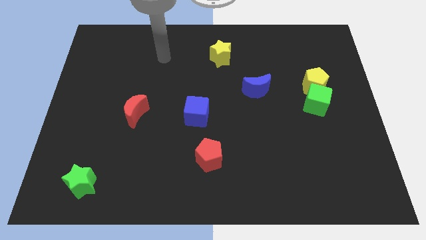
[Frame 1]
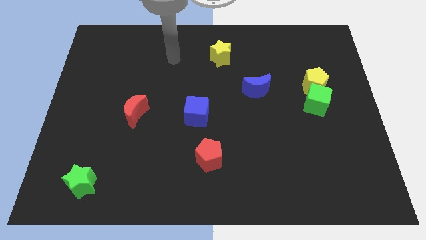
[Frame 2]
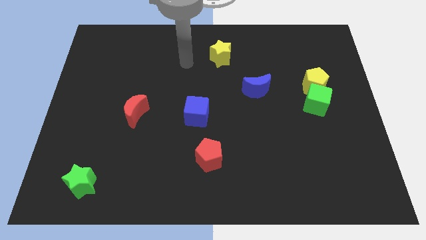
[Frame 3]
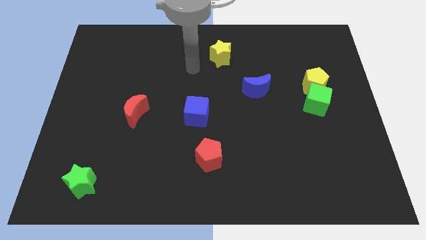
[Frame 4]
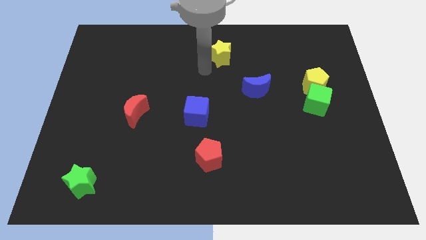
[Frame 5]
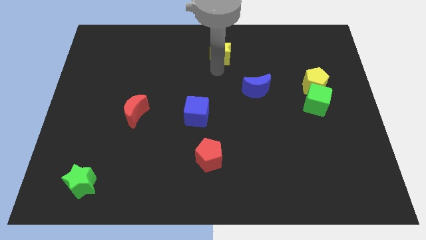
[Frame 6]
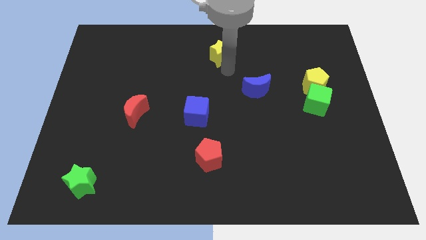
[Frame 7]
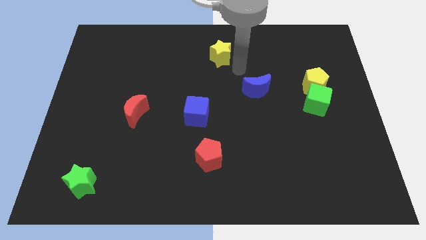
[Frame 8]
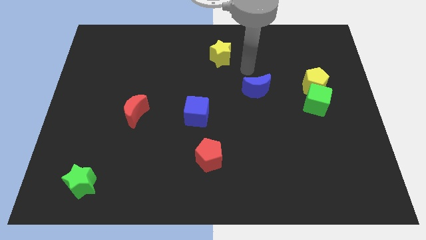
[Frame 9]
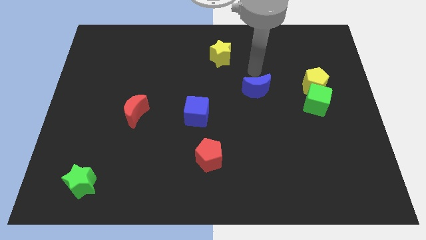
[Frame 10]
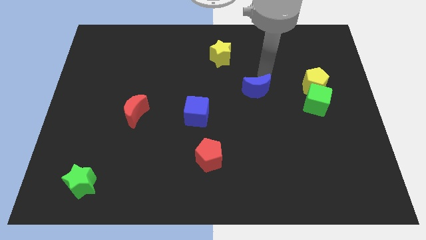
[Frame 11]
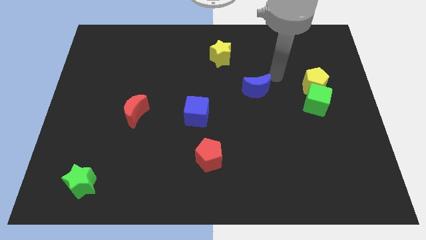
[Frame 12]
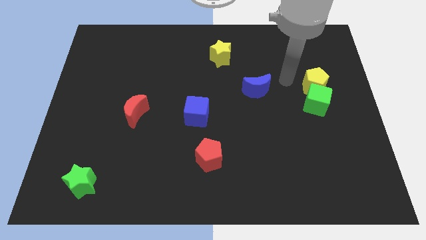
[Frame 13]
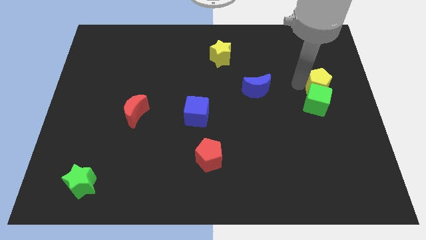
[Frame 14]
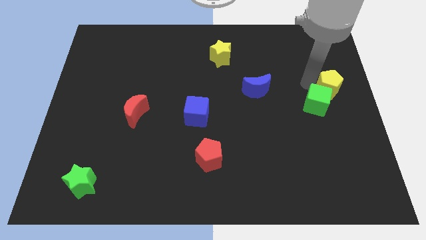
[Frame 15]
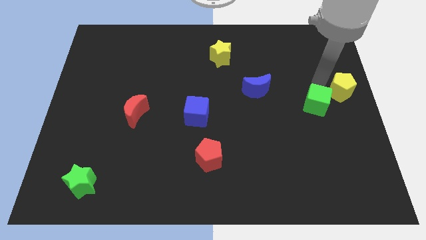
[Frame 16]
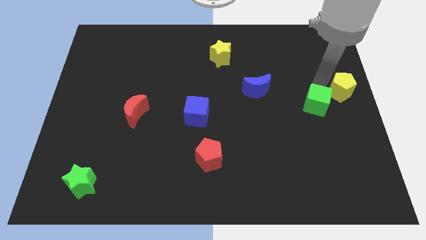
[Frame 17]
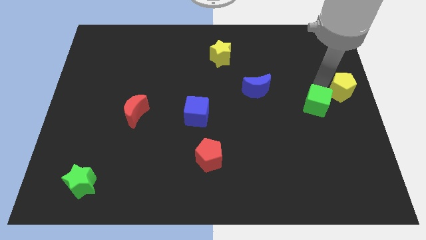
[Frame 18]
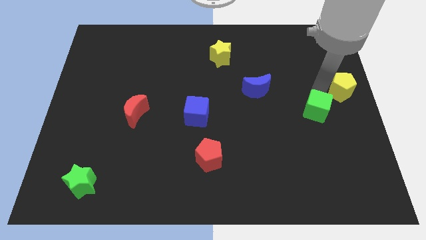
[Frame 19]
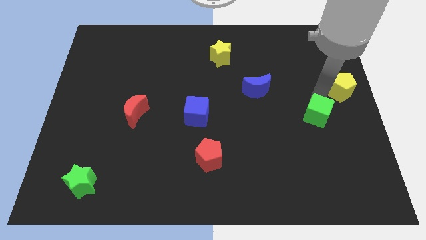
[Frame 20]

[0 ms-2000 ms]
move the green cube away from the yellow pentagon

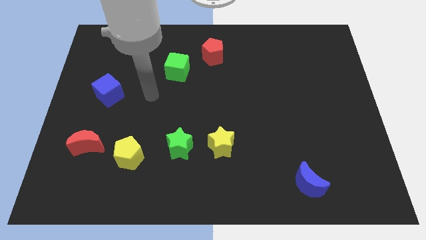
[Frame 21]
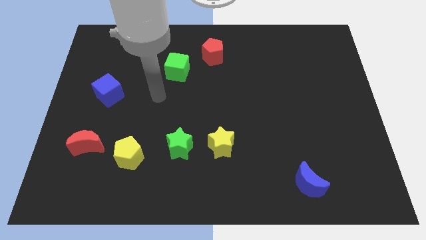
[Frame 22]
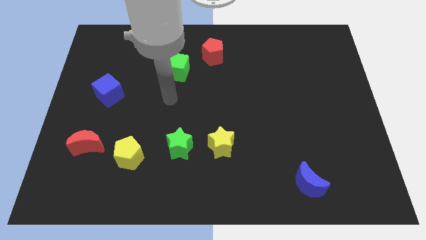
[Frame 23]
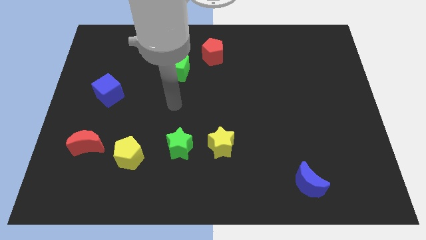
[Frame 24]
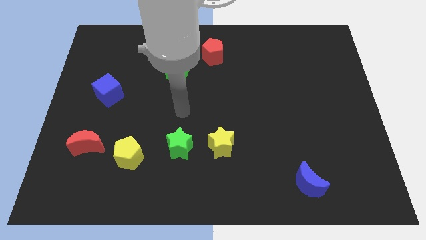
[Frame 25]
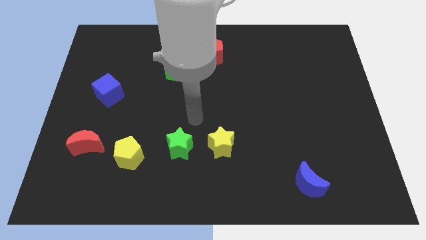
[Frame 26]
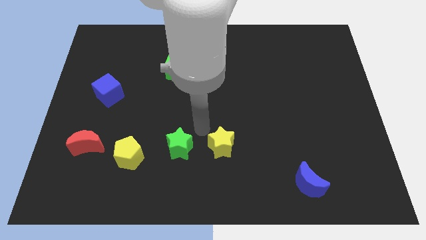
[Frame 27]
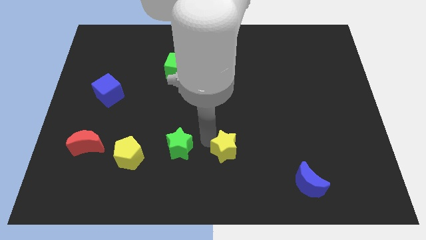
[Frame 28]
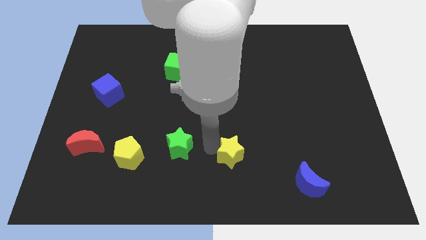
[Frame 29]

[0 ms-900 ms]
pull the green star apart from the yellow star

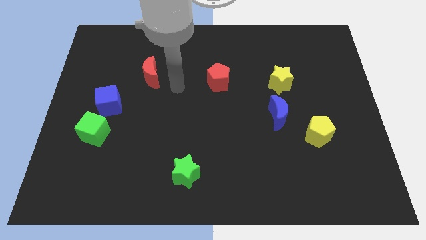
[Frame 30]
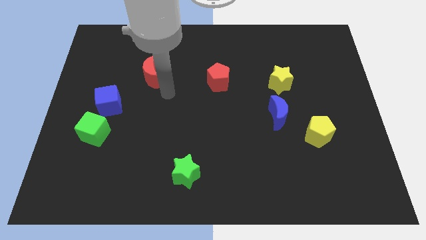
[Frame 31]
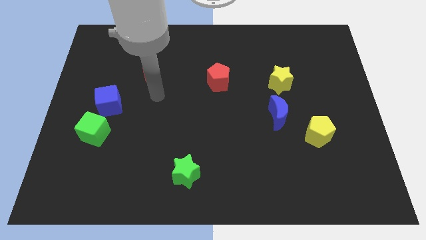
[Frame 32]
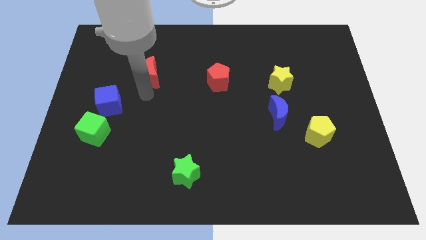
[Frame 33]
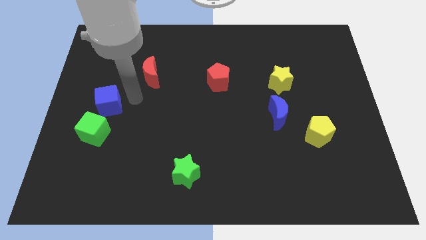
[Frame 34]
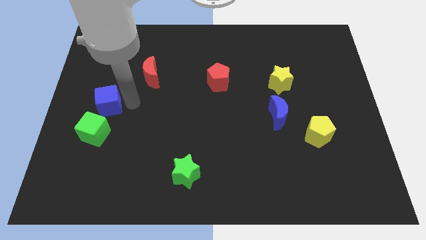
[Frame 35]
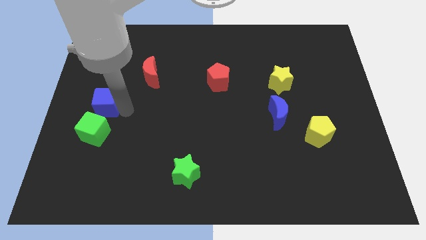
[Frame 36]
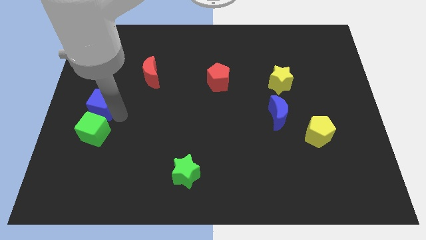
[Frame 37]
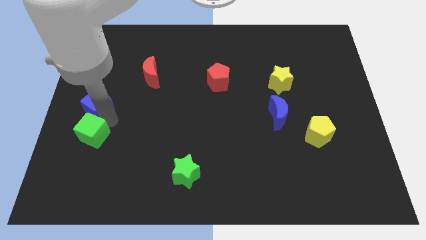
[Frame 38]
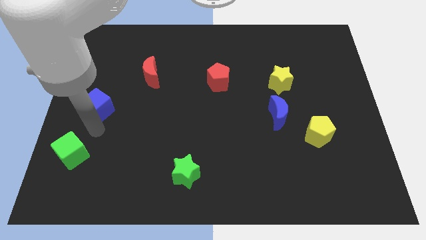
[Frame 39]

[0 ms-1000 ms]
separate the blue cube from the green cube

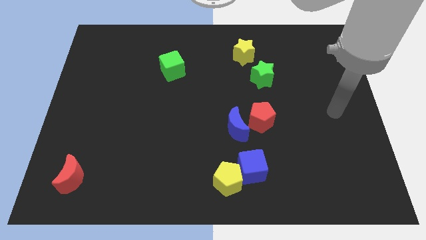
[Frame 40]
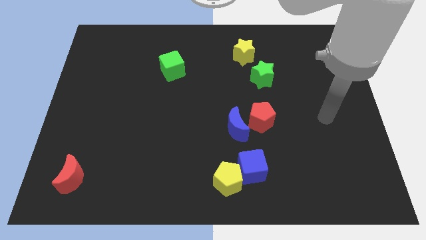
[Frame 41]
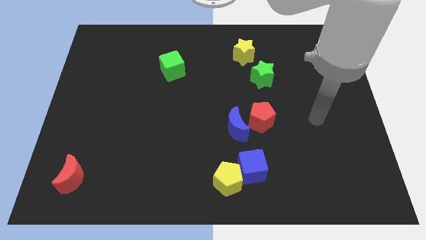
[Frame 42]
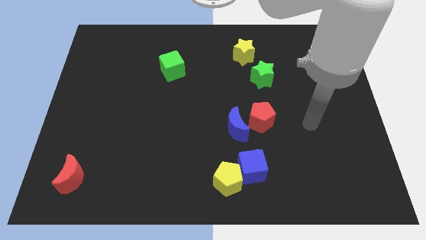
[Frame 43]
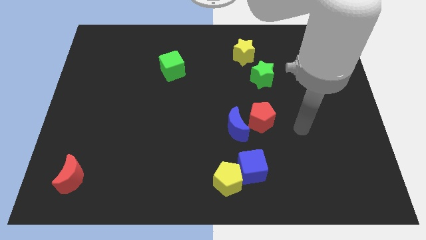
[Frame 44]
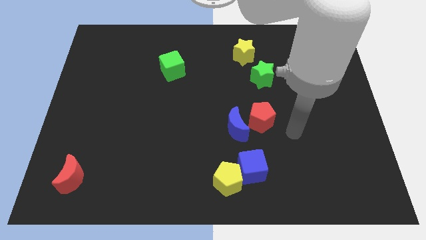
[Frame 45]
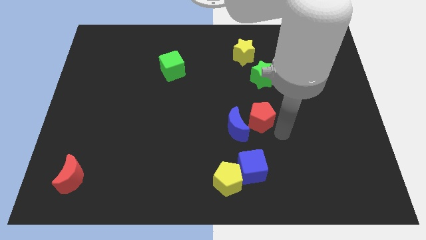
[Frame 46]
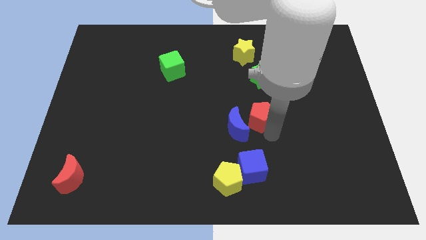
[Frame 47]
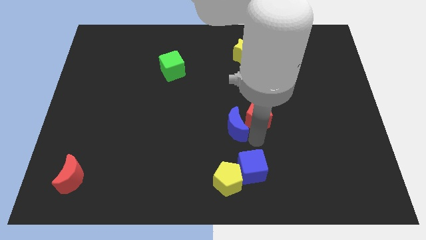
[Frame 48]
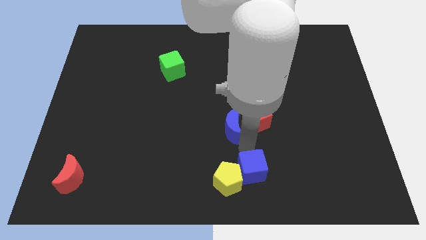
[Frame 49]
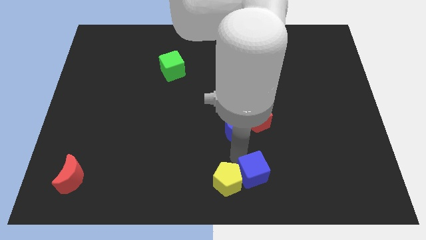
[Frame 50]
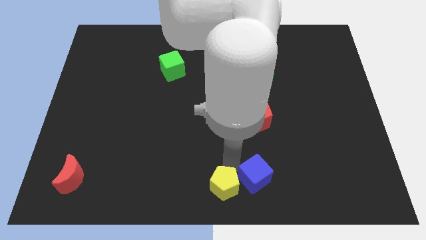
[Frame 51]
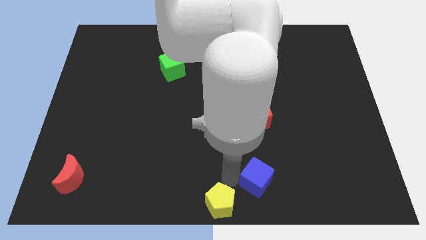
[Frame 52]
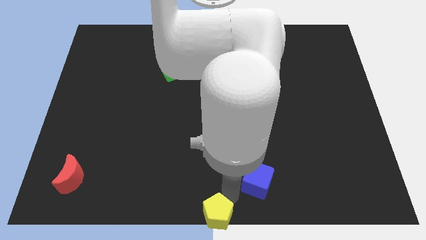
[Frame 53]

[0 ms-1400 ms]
separate the blue cube from the yellow pentagon

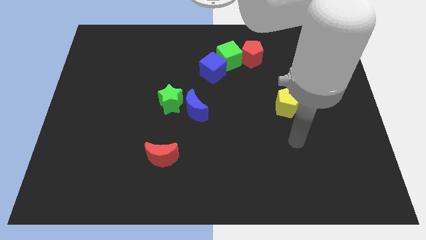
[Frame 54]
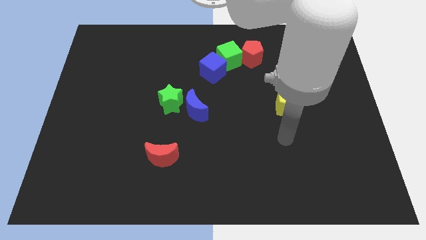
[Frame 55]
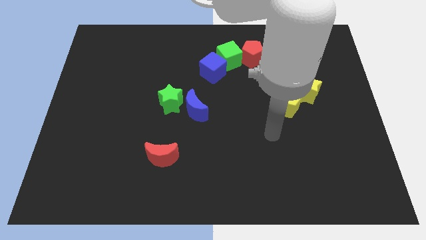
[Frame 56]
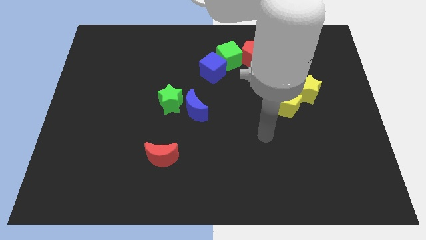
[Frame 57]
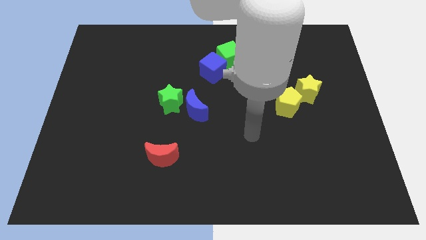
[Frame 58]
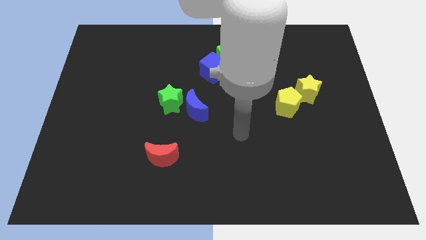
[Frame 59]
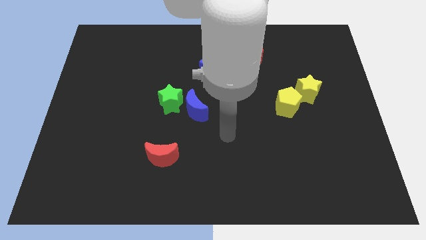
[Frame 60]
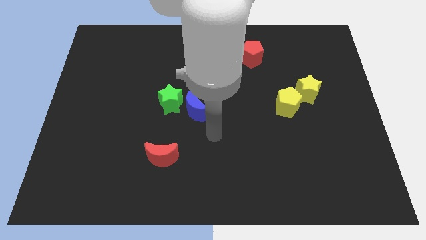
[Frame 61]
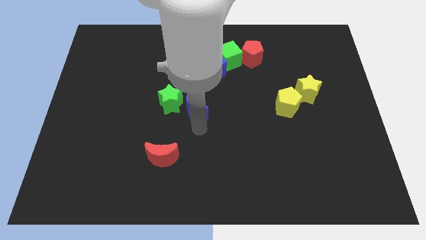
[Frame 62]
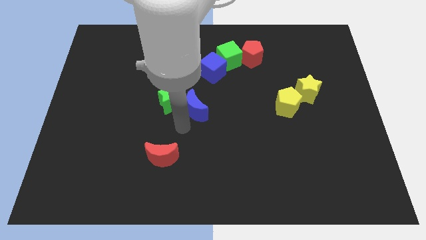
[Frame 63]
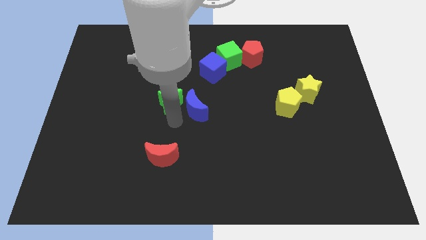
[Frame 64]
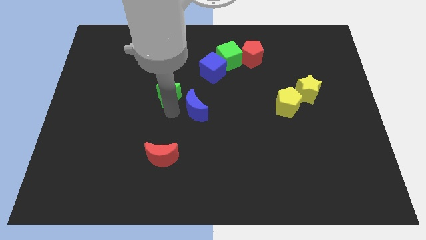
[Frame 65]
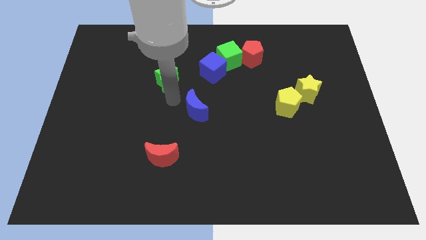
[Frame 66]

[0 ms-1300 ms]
separate the blue moon from the green star

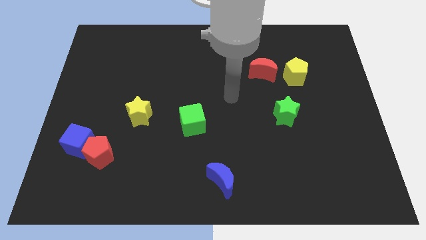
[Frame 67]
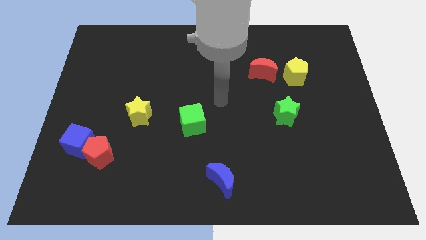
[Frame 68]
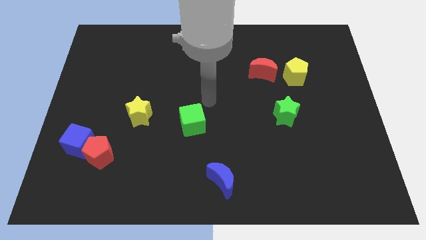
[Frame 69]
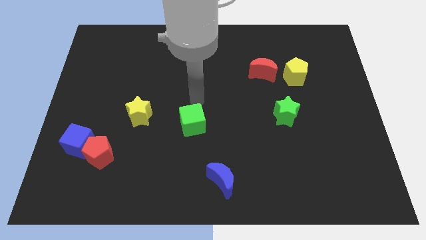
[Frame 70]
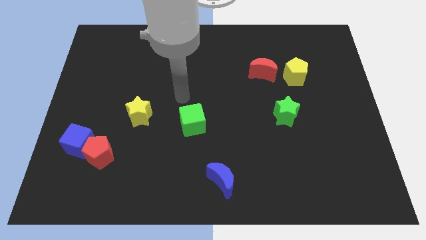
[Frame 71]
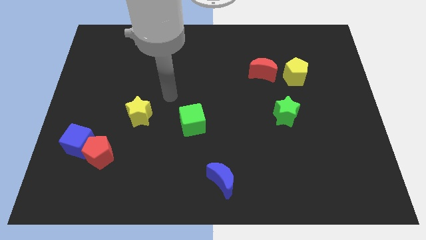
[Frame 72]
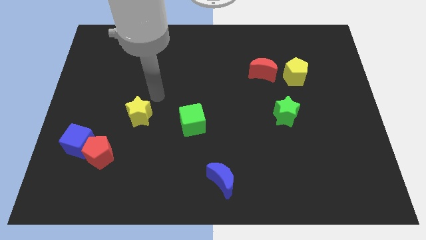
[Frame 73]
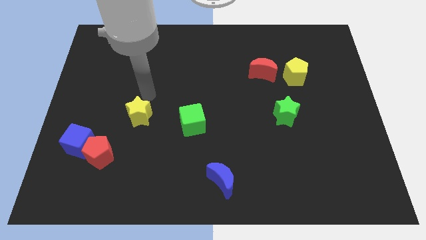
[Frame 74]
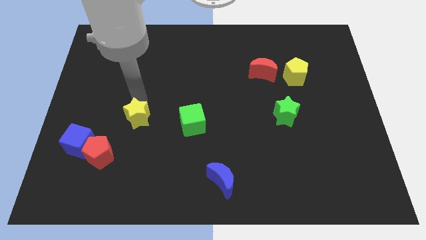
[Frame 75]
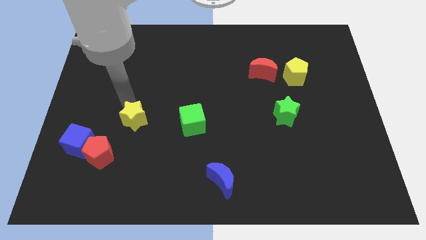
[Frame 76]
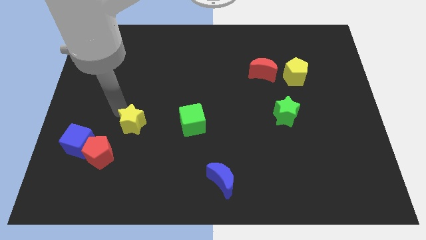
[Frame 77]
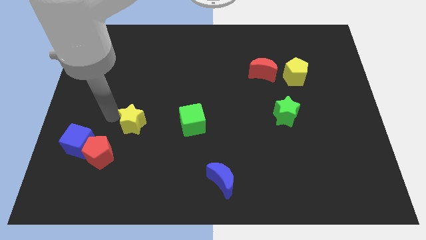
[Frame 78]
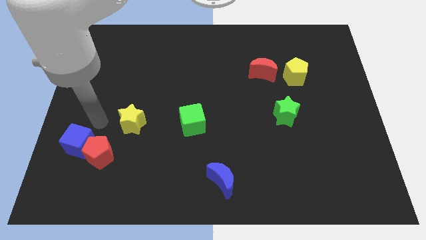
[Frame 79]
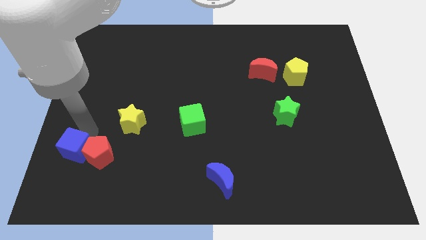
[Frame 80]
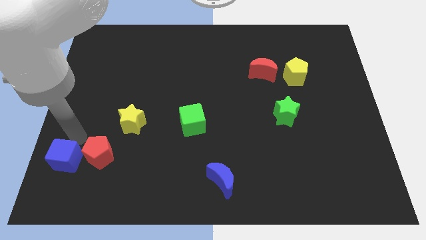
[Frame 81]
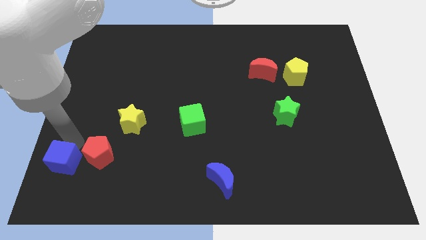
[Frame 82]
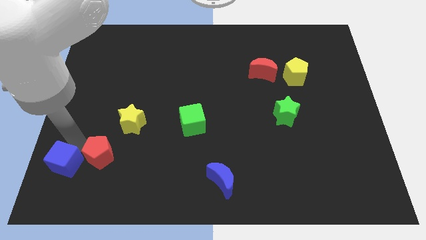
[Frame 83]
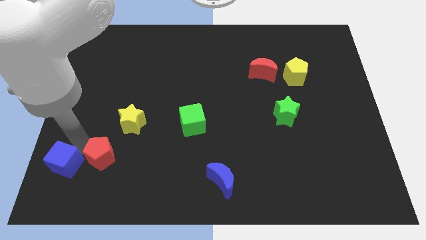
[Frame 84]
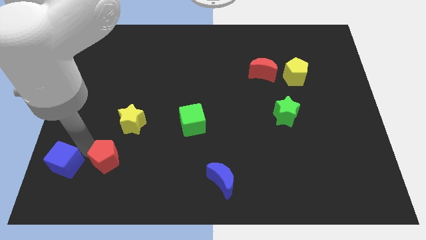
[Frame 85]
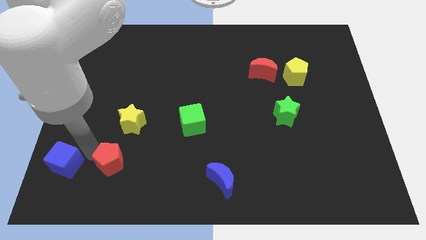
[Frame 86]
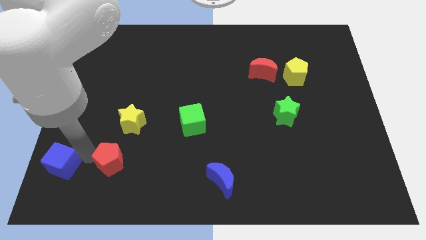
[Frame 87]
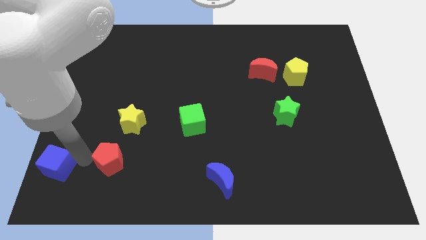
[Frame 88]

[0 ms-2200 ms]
separate the red pentagon from the blue cube

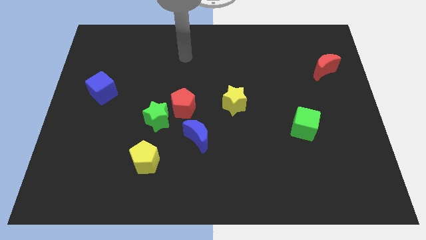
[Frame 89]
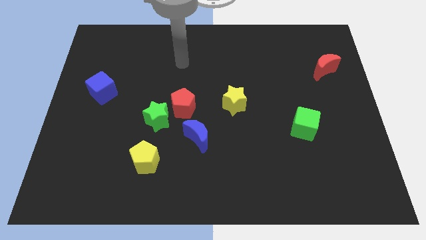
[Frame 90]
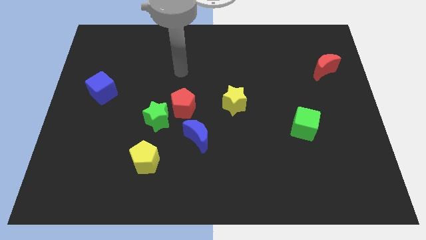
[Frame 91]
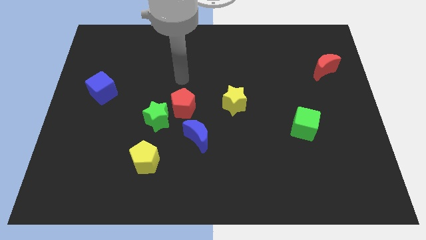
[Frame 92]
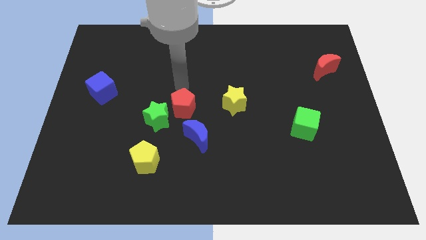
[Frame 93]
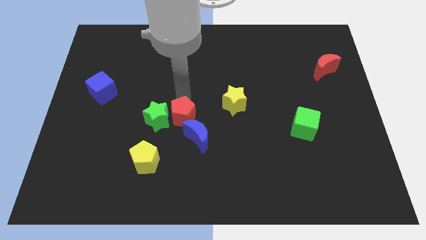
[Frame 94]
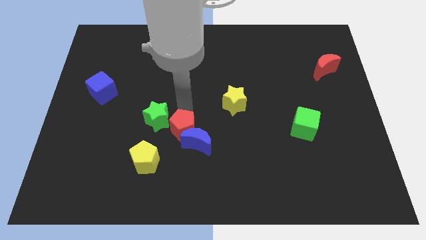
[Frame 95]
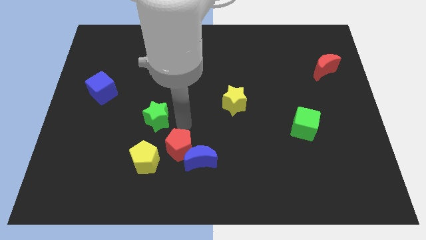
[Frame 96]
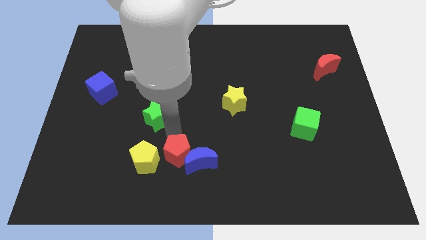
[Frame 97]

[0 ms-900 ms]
pull the green star apart from the red pentagon
